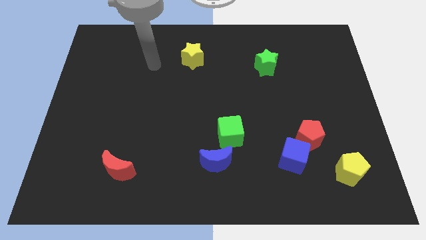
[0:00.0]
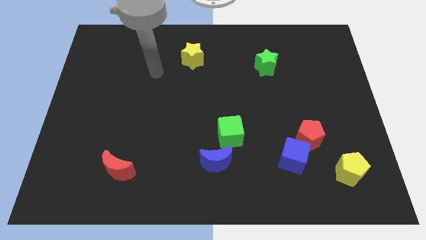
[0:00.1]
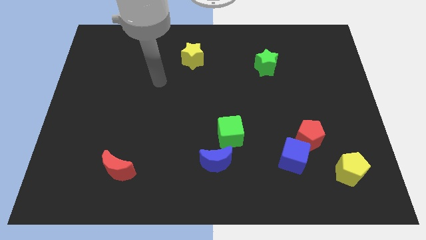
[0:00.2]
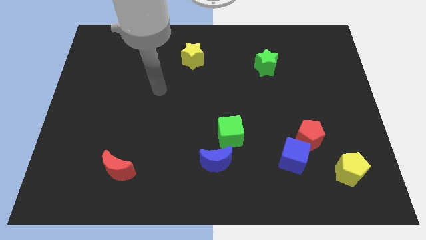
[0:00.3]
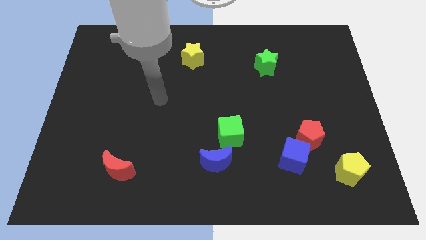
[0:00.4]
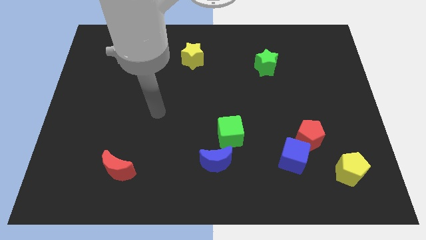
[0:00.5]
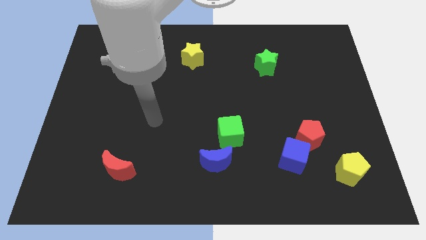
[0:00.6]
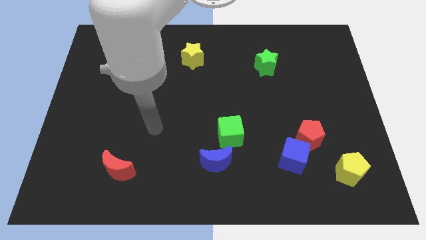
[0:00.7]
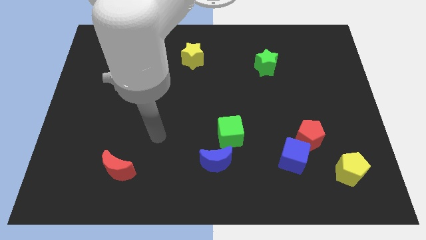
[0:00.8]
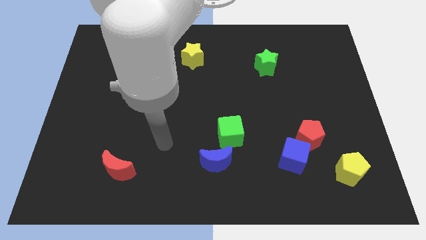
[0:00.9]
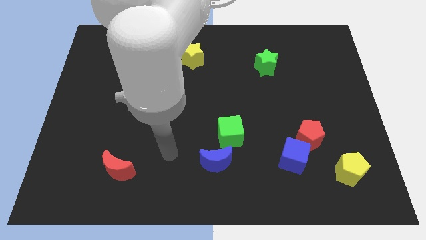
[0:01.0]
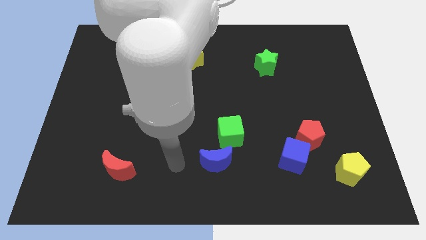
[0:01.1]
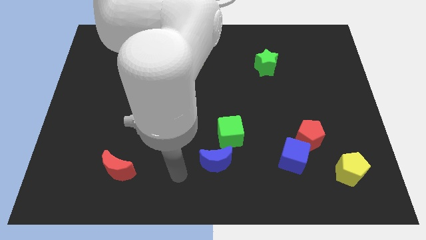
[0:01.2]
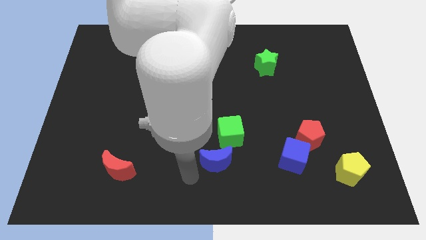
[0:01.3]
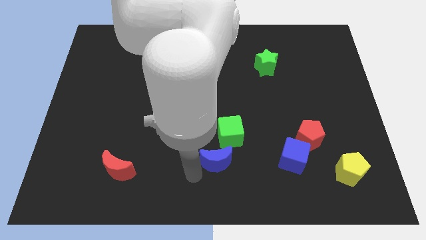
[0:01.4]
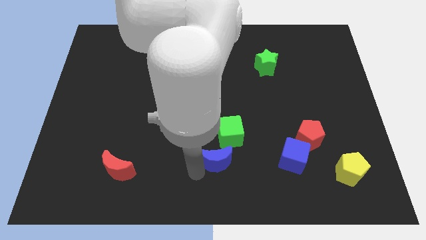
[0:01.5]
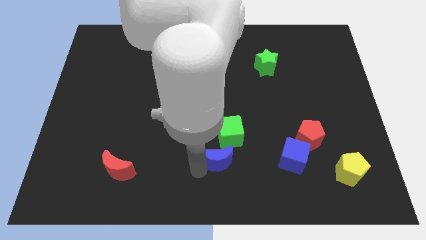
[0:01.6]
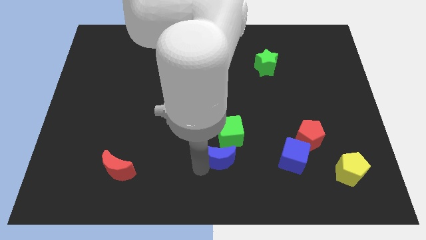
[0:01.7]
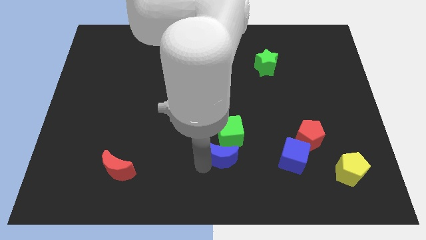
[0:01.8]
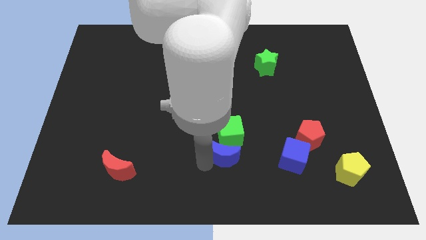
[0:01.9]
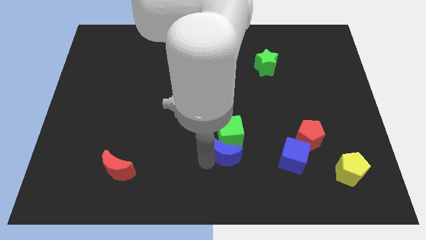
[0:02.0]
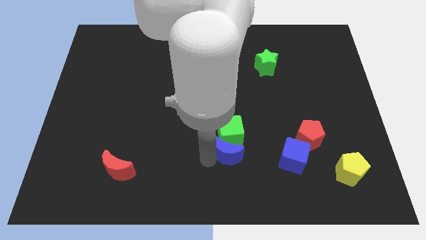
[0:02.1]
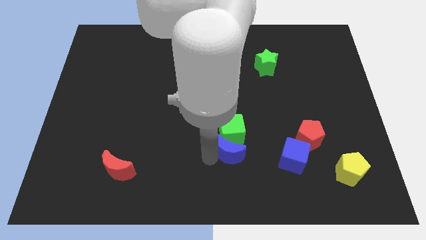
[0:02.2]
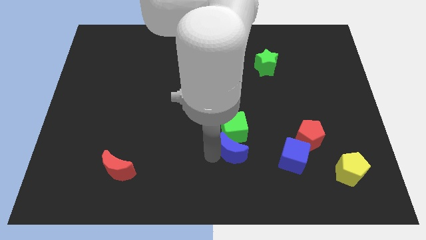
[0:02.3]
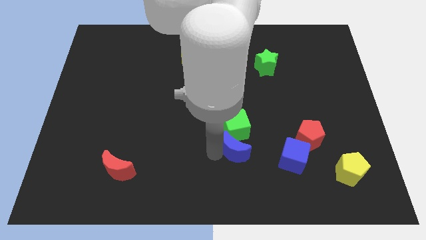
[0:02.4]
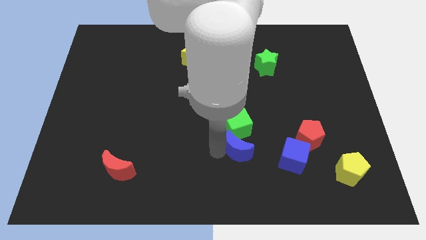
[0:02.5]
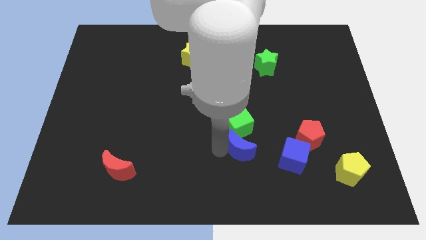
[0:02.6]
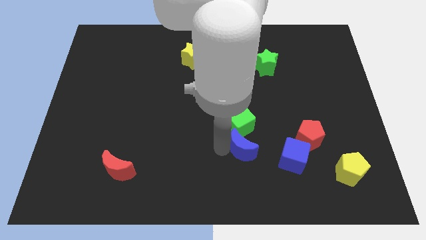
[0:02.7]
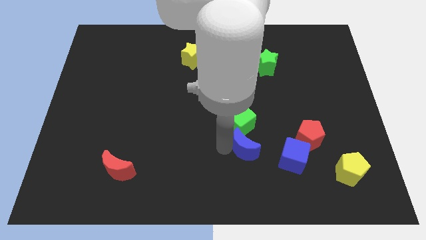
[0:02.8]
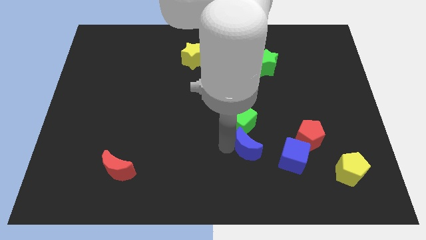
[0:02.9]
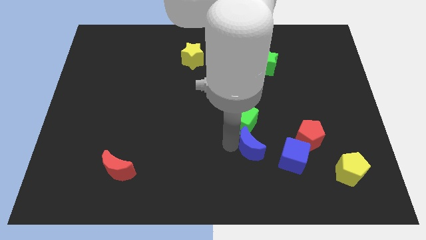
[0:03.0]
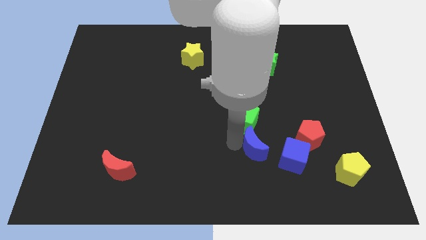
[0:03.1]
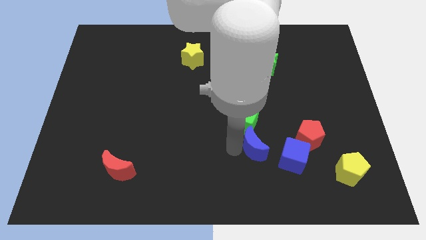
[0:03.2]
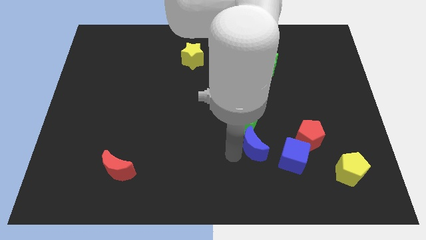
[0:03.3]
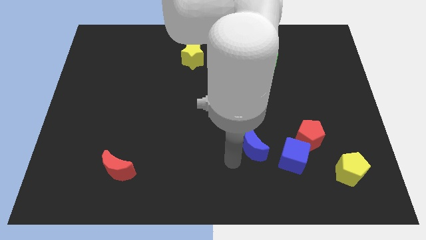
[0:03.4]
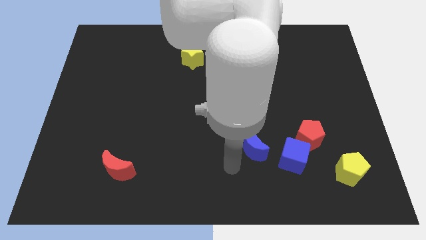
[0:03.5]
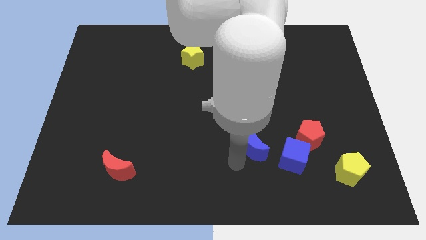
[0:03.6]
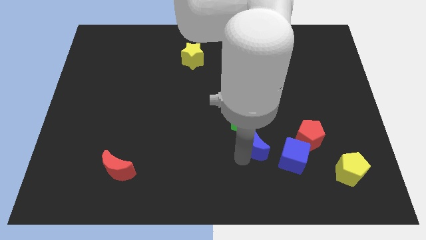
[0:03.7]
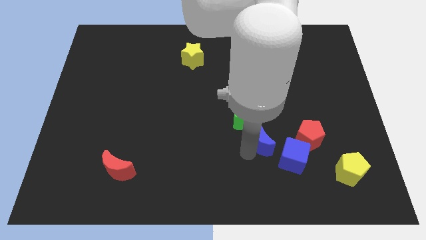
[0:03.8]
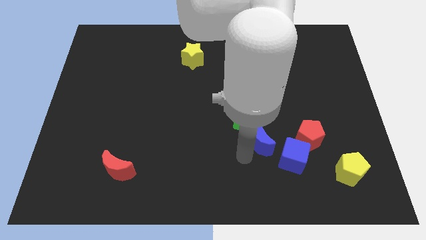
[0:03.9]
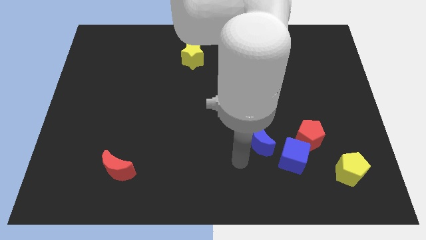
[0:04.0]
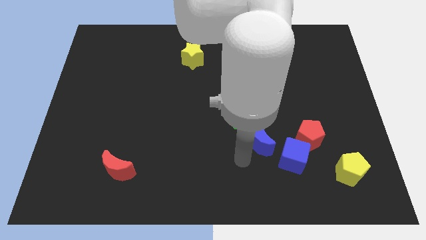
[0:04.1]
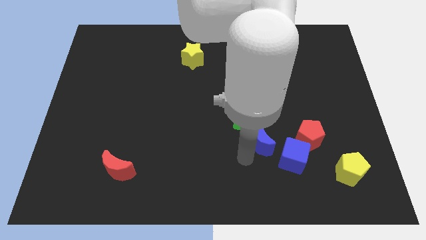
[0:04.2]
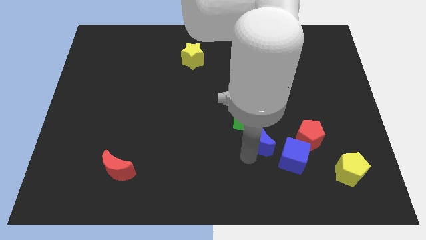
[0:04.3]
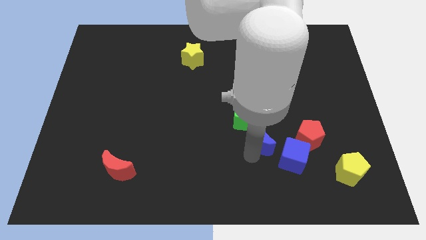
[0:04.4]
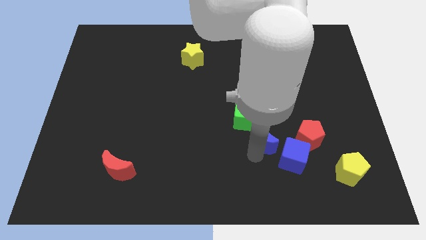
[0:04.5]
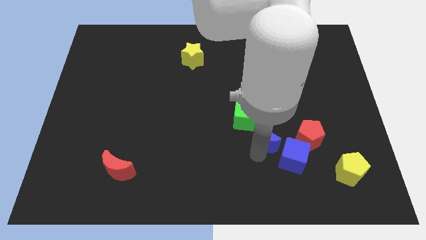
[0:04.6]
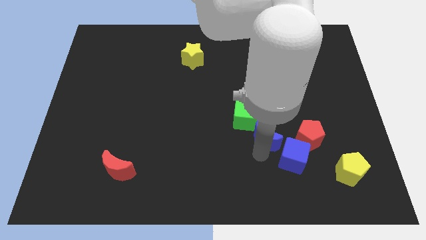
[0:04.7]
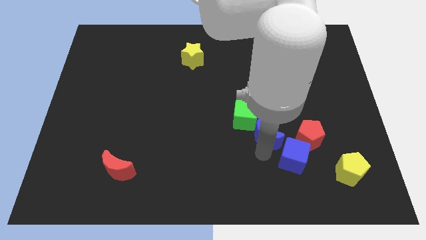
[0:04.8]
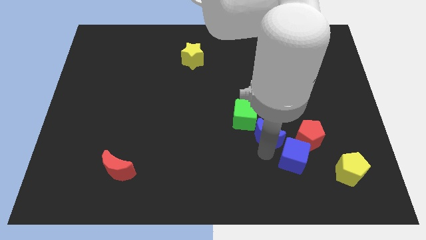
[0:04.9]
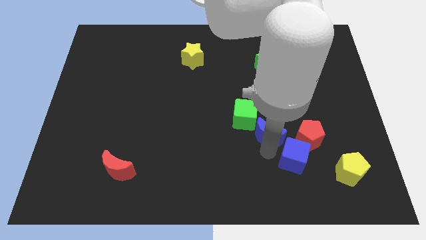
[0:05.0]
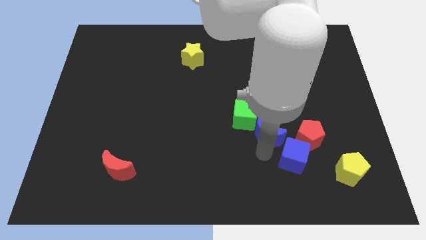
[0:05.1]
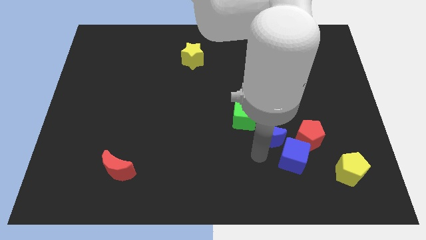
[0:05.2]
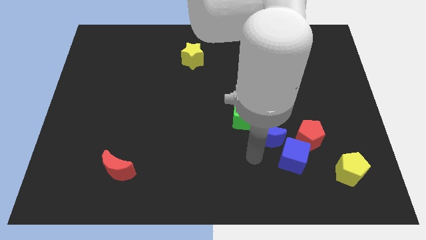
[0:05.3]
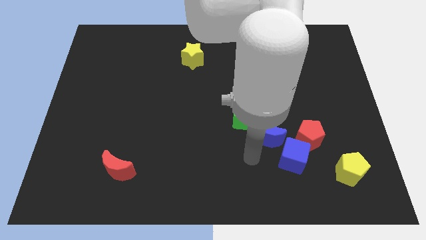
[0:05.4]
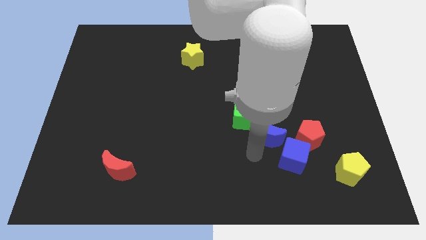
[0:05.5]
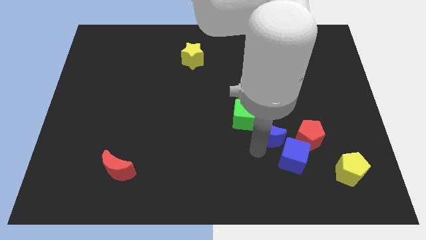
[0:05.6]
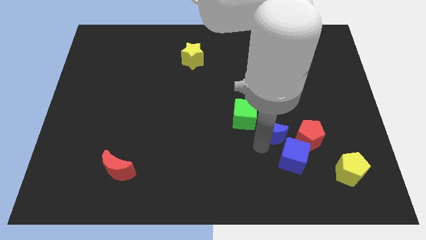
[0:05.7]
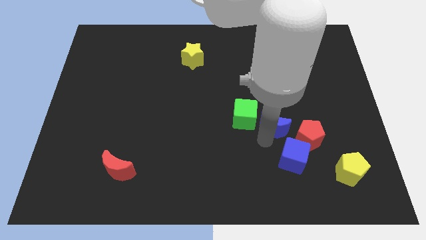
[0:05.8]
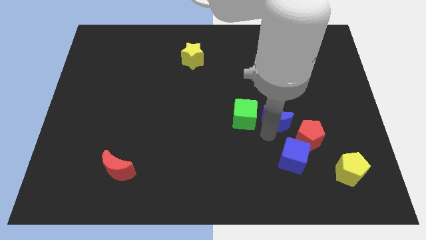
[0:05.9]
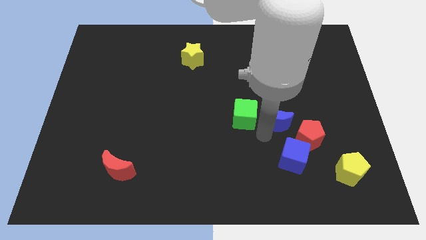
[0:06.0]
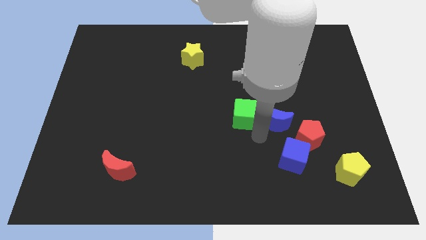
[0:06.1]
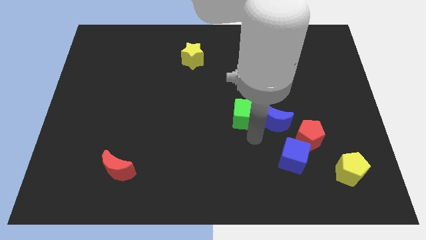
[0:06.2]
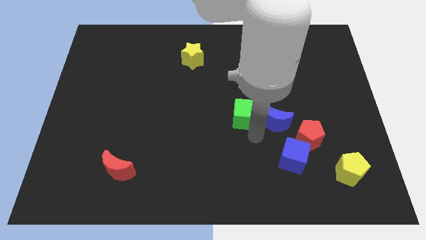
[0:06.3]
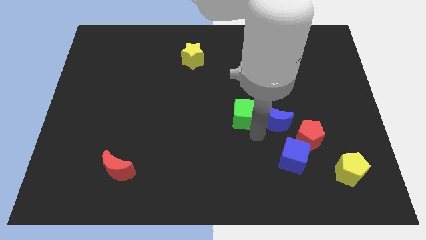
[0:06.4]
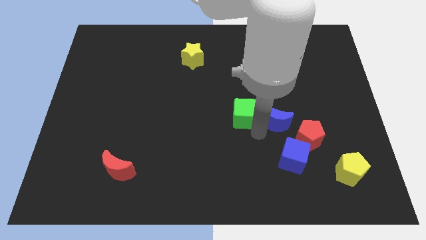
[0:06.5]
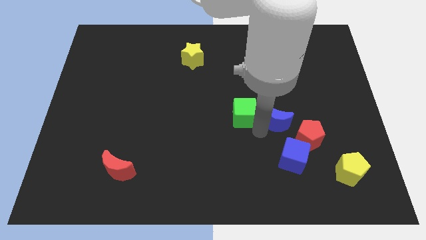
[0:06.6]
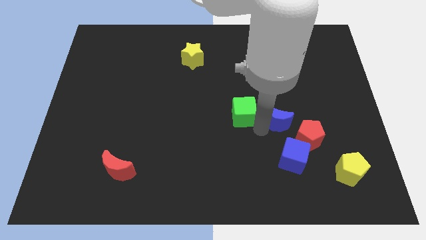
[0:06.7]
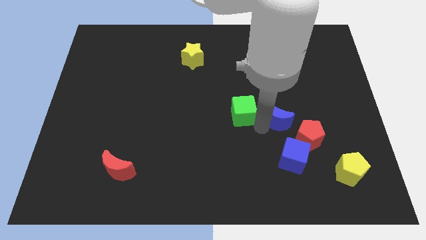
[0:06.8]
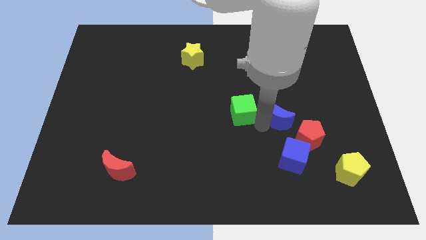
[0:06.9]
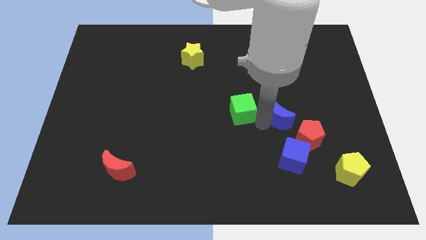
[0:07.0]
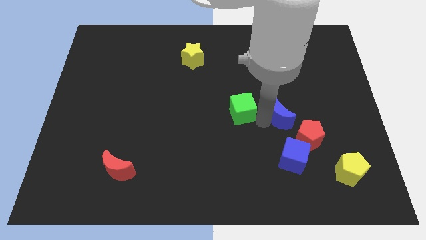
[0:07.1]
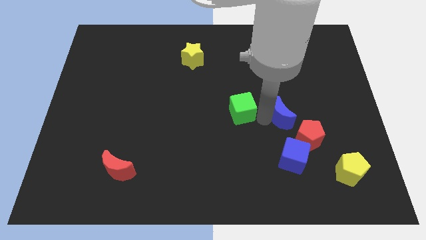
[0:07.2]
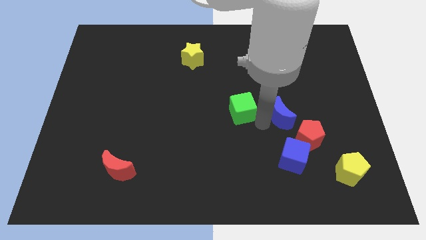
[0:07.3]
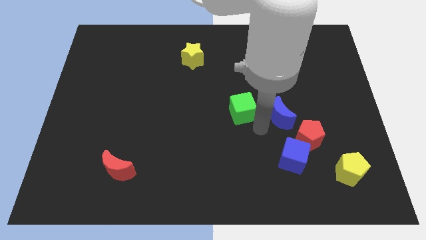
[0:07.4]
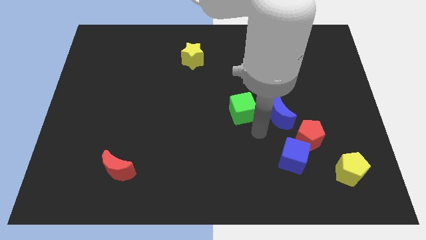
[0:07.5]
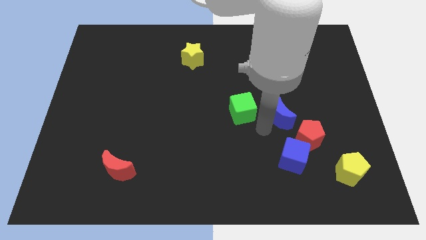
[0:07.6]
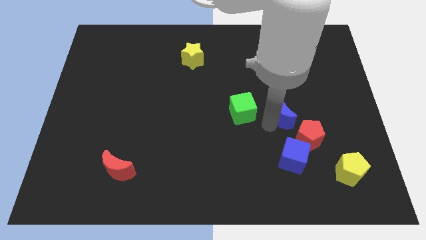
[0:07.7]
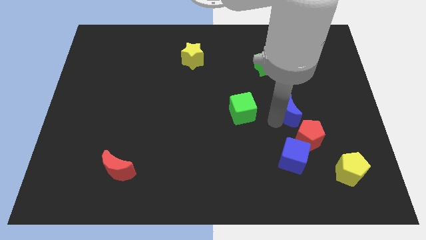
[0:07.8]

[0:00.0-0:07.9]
move the blue moon to the top side of the red pentagon
